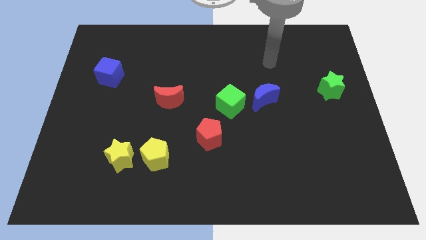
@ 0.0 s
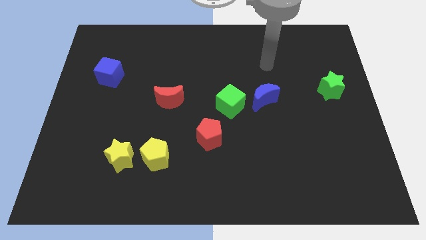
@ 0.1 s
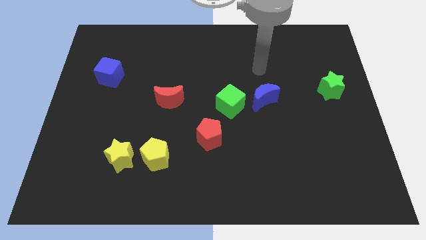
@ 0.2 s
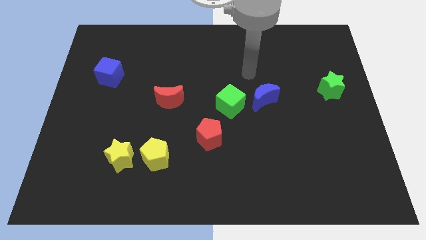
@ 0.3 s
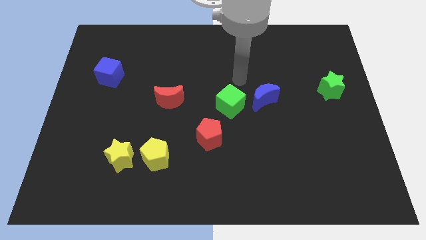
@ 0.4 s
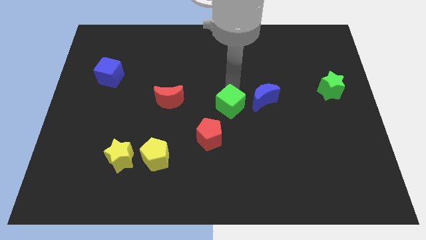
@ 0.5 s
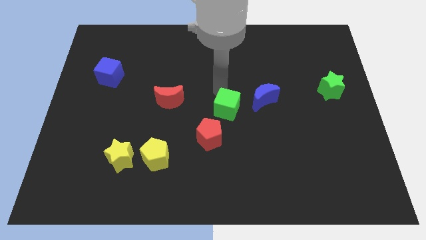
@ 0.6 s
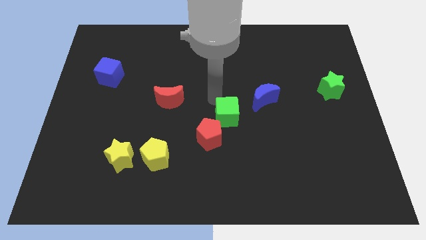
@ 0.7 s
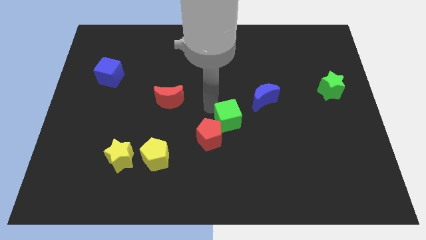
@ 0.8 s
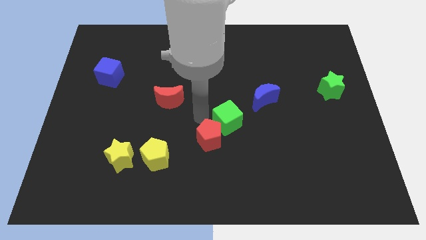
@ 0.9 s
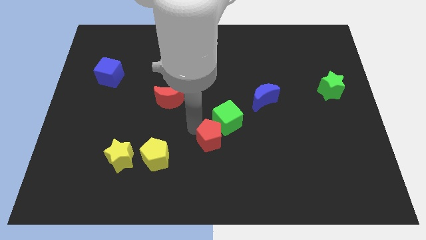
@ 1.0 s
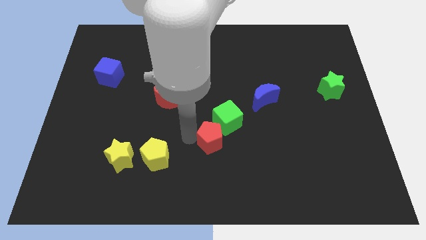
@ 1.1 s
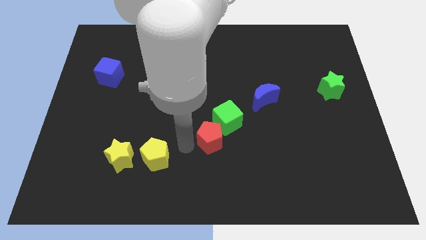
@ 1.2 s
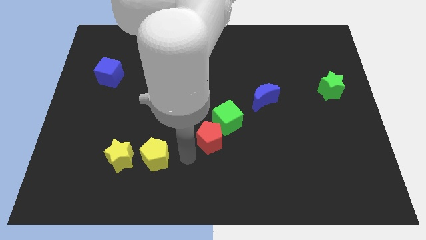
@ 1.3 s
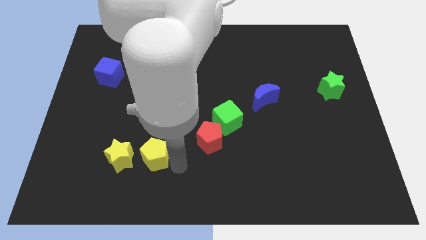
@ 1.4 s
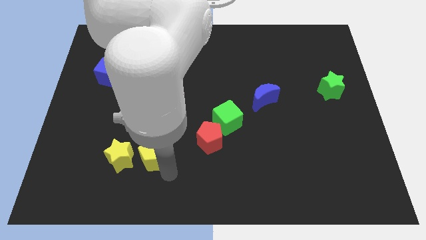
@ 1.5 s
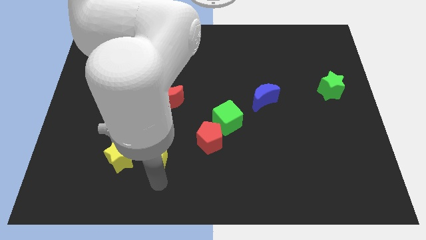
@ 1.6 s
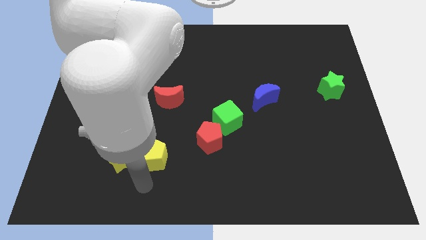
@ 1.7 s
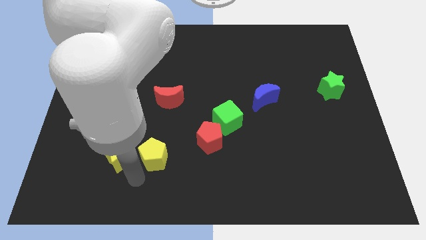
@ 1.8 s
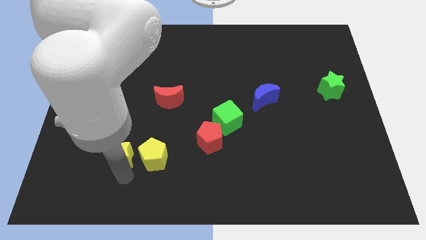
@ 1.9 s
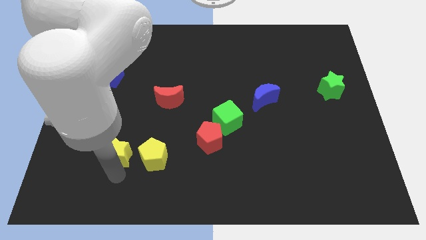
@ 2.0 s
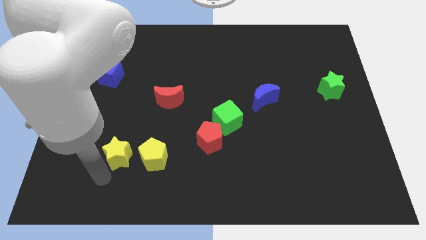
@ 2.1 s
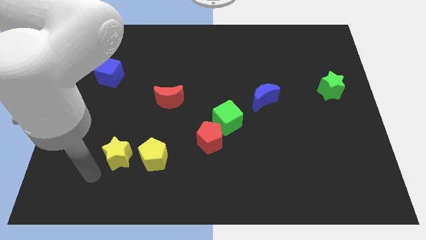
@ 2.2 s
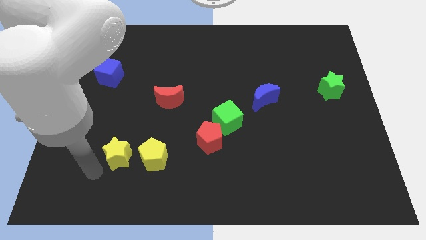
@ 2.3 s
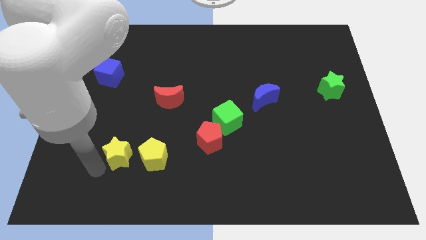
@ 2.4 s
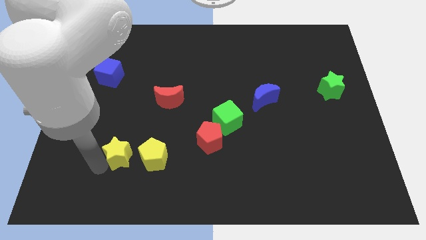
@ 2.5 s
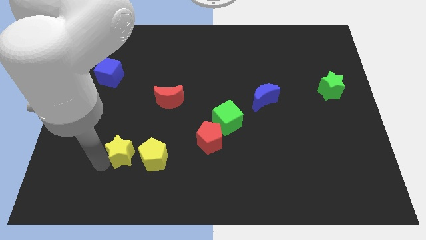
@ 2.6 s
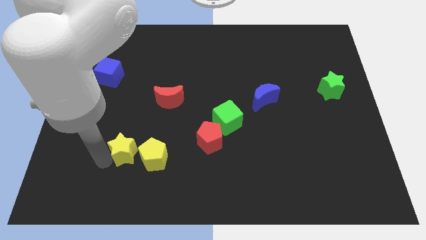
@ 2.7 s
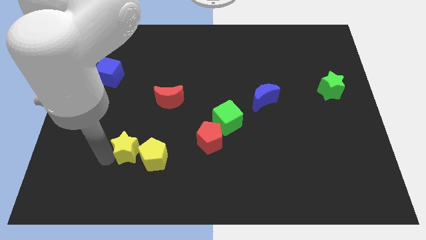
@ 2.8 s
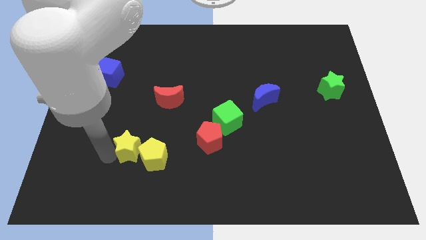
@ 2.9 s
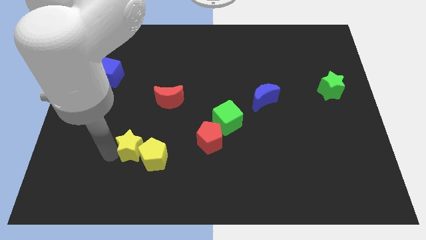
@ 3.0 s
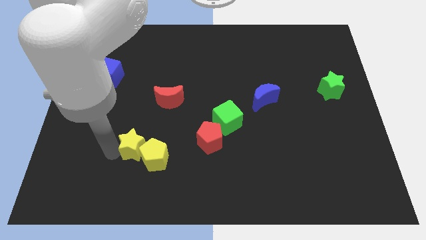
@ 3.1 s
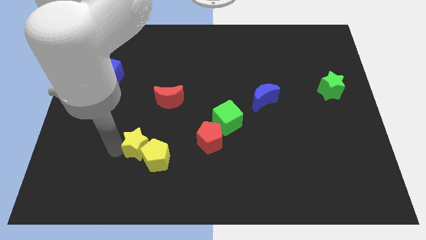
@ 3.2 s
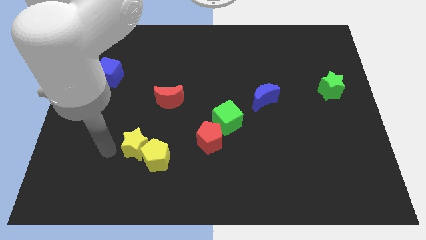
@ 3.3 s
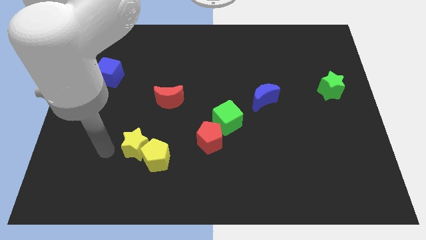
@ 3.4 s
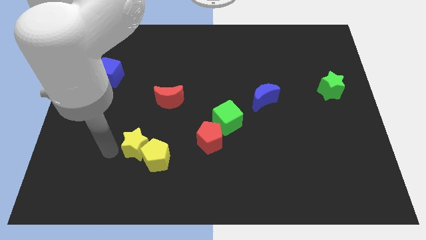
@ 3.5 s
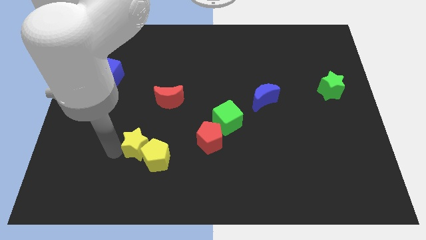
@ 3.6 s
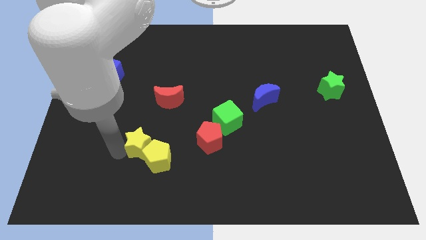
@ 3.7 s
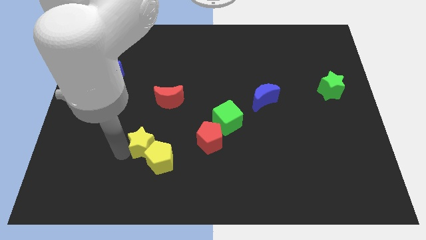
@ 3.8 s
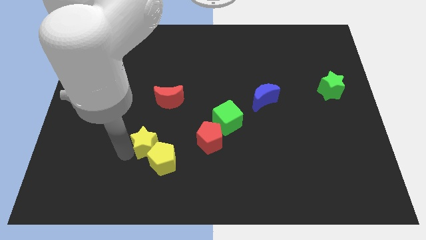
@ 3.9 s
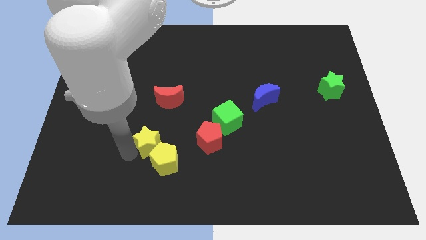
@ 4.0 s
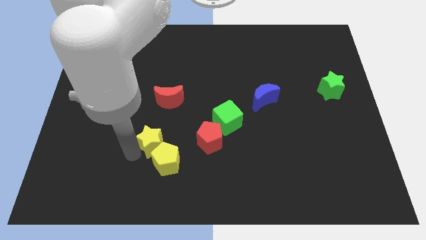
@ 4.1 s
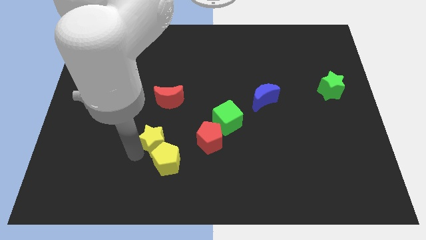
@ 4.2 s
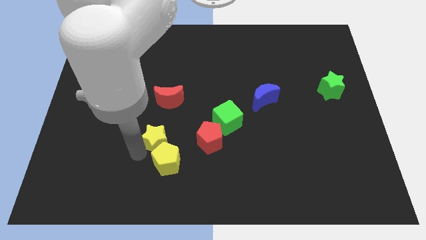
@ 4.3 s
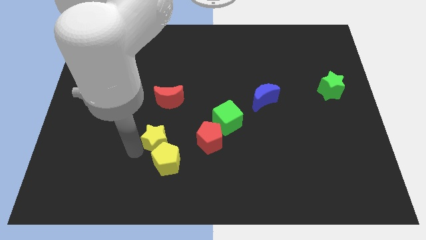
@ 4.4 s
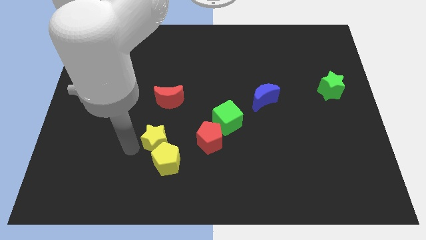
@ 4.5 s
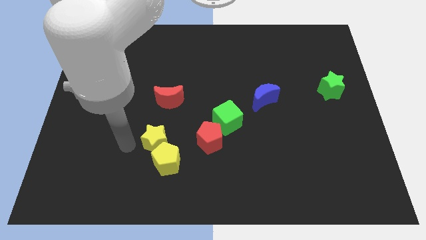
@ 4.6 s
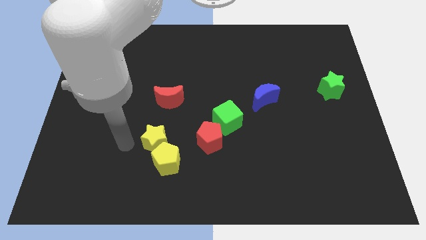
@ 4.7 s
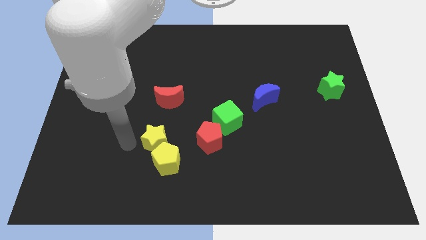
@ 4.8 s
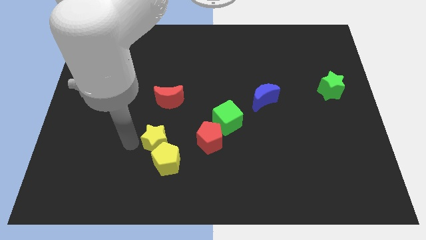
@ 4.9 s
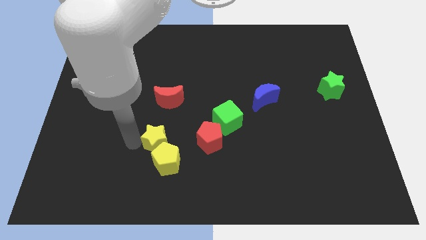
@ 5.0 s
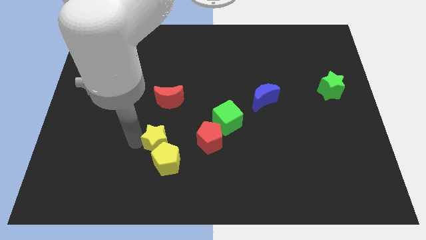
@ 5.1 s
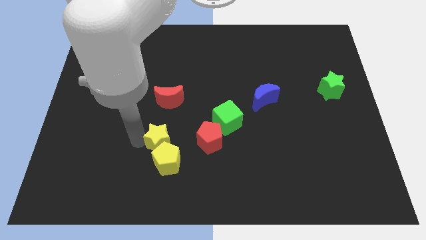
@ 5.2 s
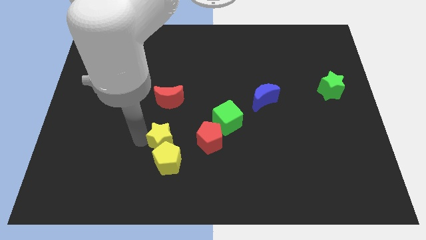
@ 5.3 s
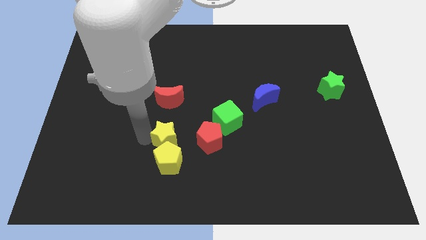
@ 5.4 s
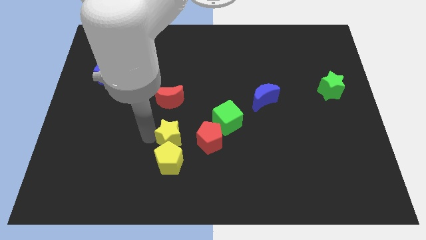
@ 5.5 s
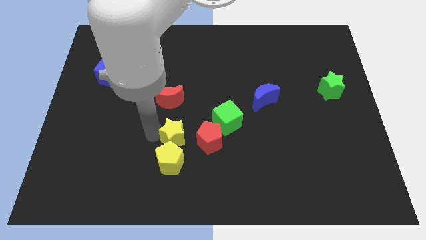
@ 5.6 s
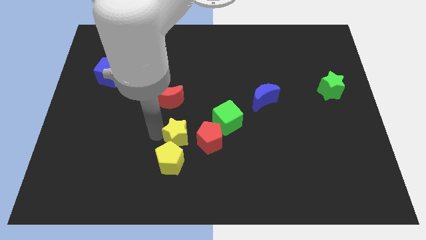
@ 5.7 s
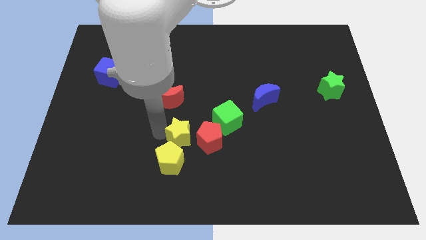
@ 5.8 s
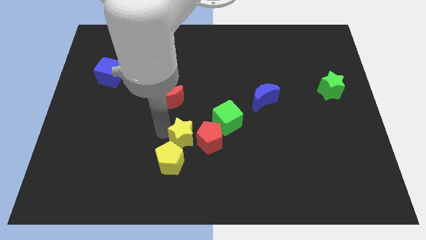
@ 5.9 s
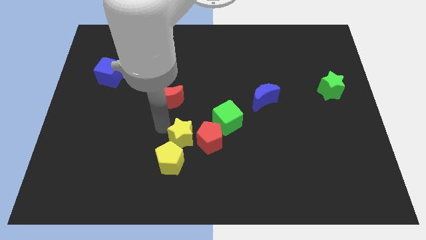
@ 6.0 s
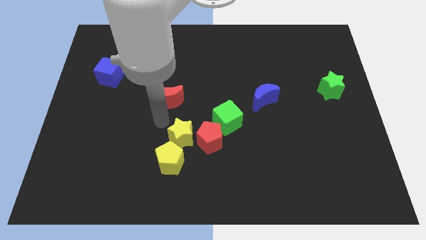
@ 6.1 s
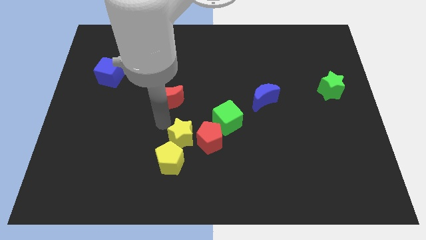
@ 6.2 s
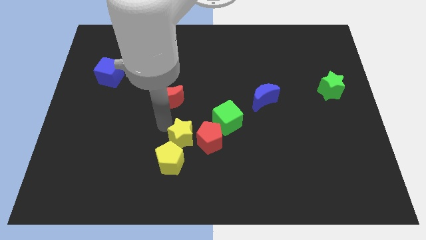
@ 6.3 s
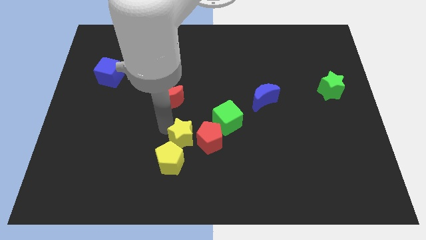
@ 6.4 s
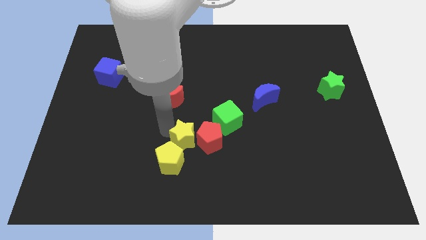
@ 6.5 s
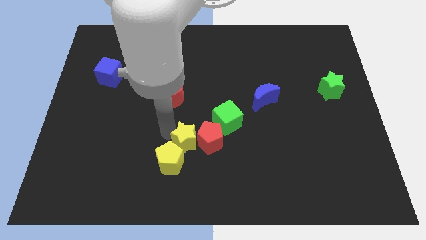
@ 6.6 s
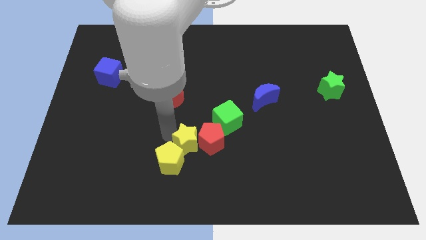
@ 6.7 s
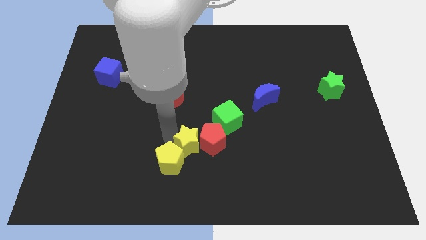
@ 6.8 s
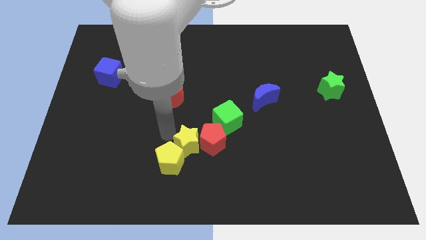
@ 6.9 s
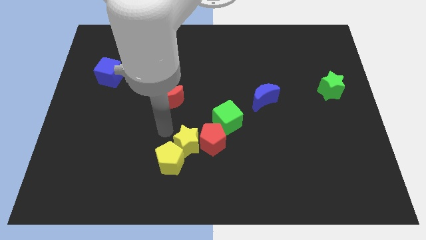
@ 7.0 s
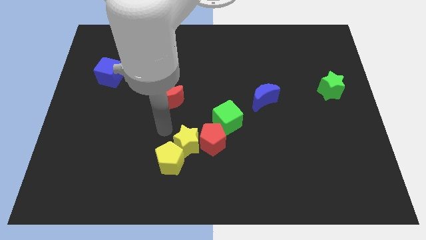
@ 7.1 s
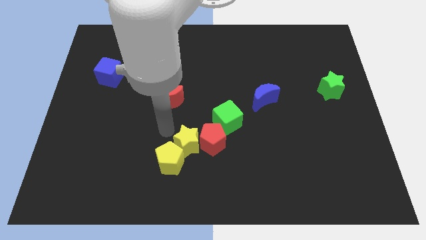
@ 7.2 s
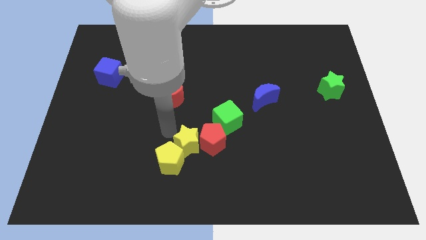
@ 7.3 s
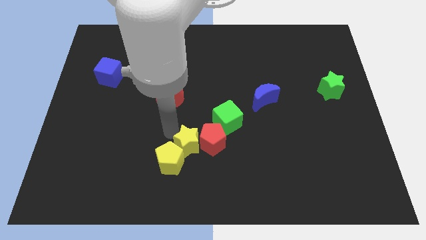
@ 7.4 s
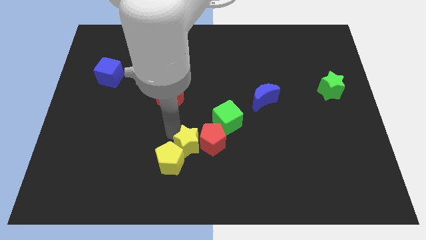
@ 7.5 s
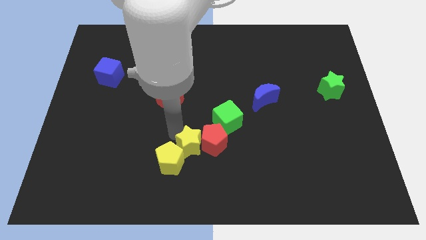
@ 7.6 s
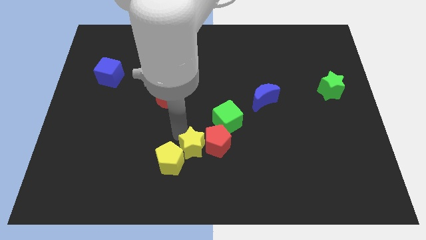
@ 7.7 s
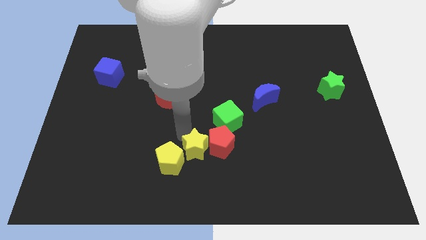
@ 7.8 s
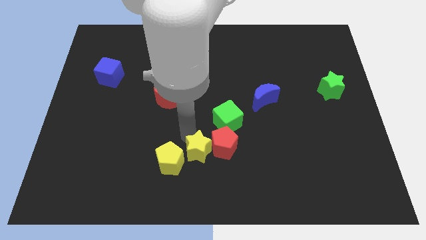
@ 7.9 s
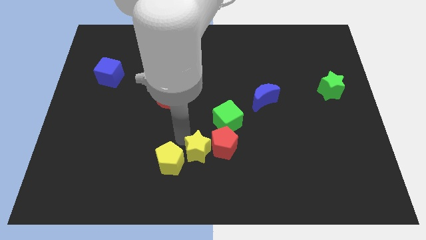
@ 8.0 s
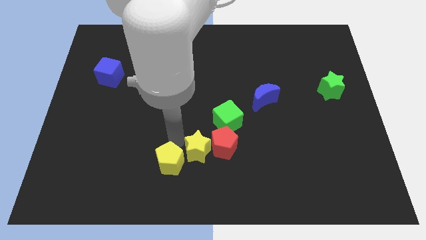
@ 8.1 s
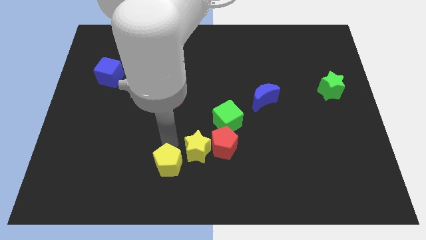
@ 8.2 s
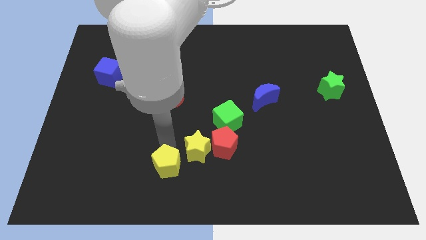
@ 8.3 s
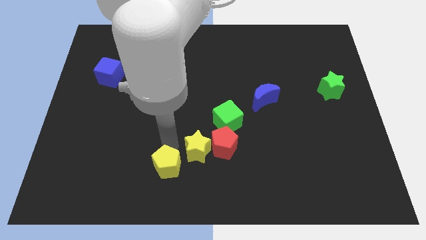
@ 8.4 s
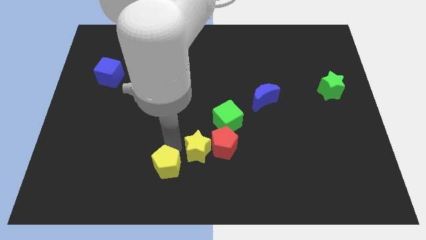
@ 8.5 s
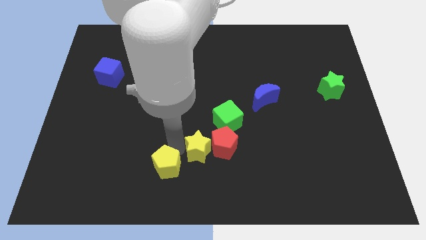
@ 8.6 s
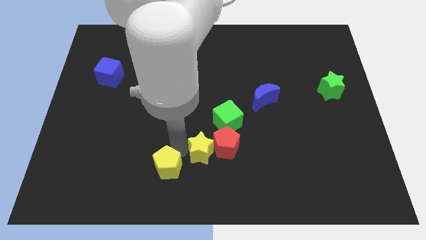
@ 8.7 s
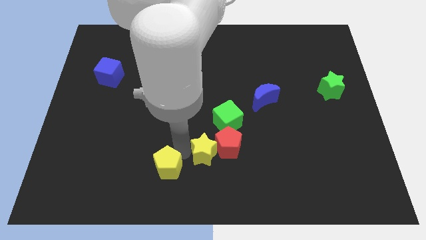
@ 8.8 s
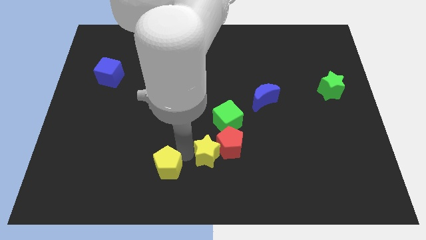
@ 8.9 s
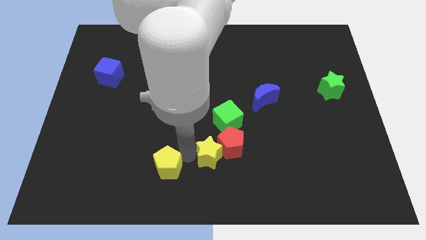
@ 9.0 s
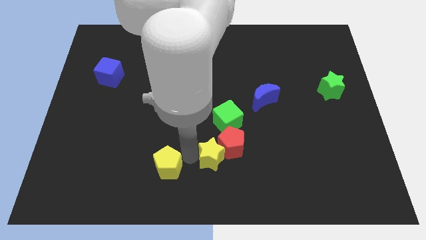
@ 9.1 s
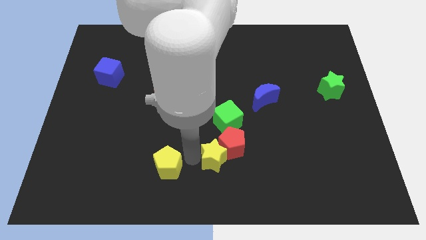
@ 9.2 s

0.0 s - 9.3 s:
move the yellow star to the right
